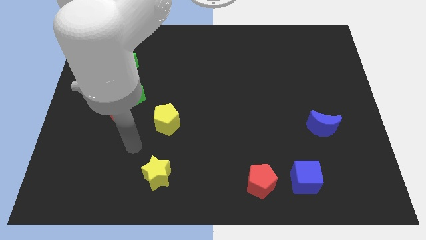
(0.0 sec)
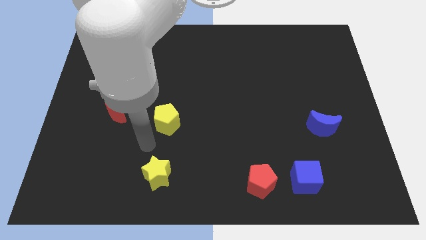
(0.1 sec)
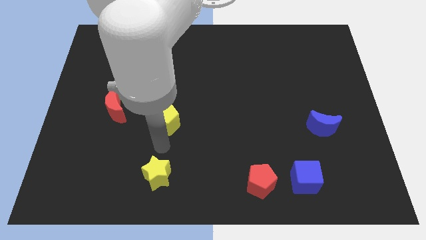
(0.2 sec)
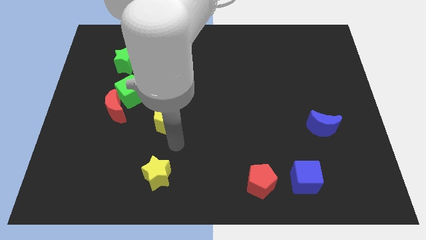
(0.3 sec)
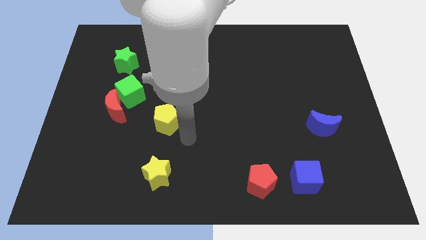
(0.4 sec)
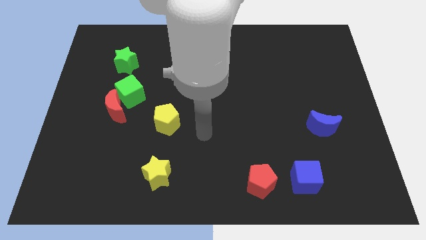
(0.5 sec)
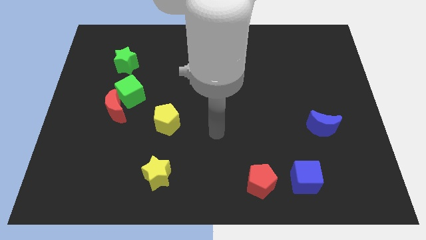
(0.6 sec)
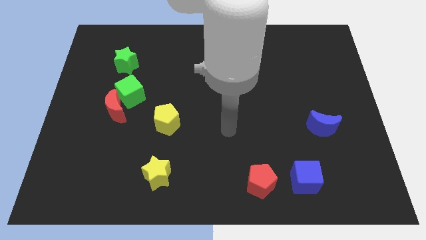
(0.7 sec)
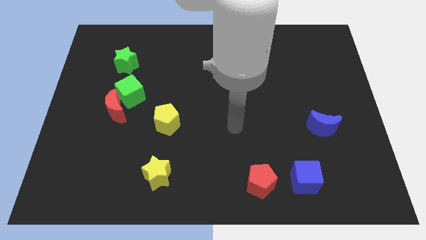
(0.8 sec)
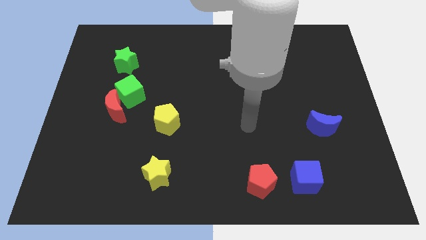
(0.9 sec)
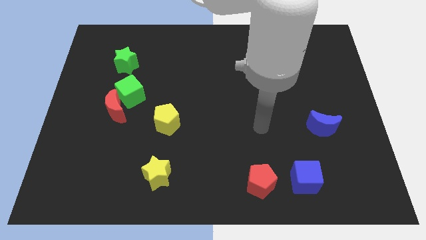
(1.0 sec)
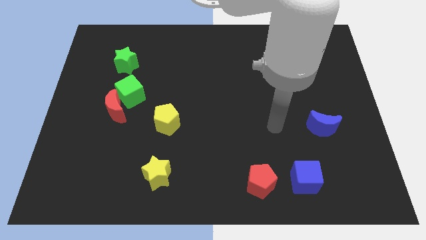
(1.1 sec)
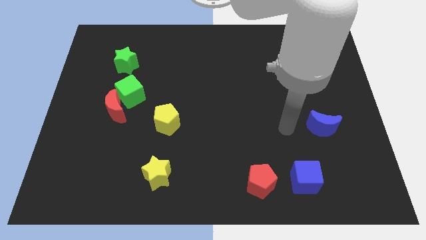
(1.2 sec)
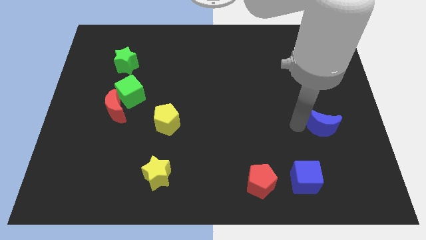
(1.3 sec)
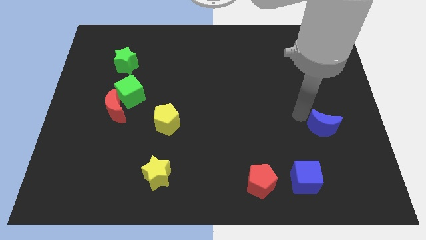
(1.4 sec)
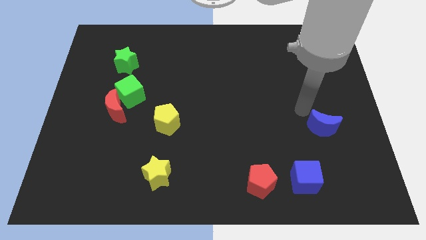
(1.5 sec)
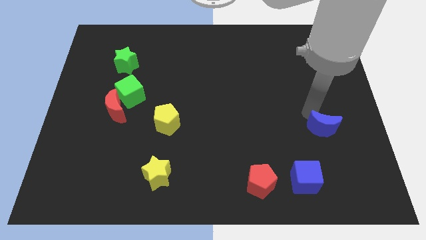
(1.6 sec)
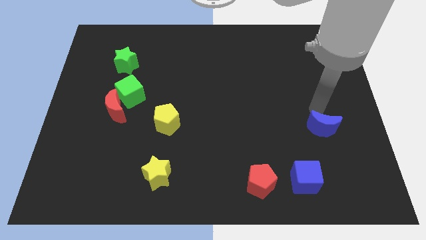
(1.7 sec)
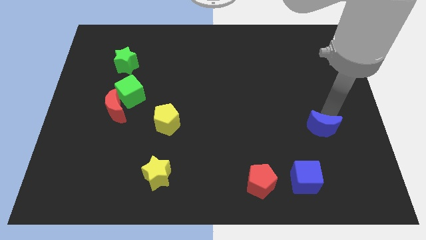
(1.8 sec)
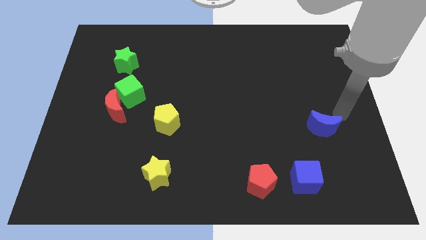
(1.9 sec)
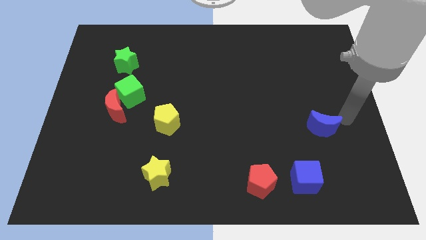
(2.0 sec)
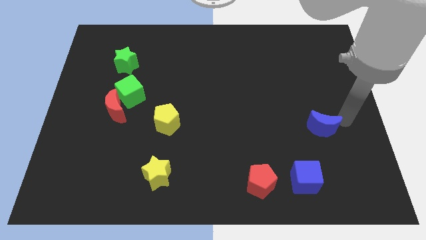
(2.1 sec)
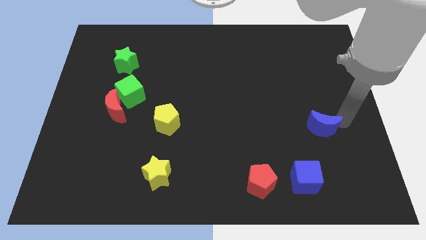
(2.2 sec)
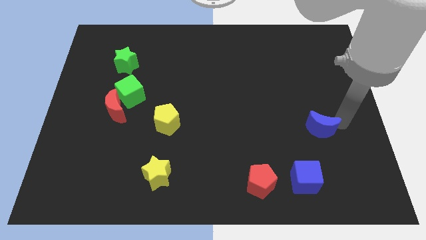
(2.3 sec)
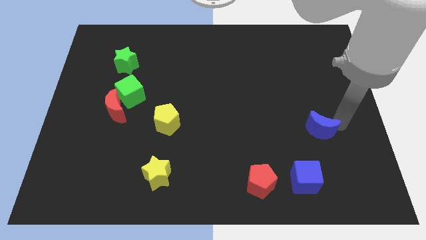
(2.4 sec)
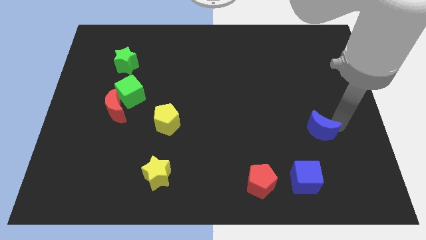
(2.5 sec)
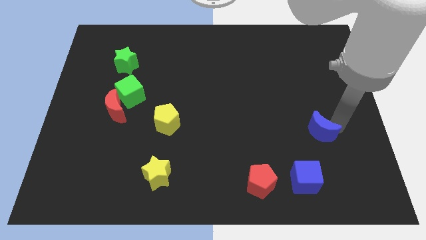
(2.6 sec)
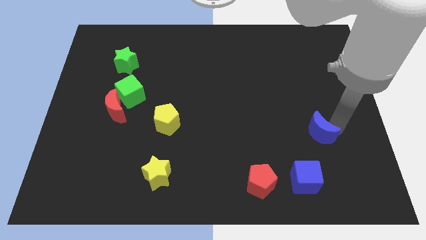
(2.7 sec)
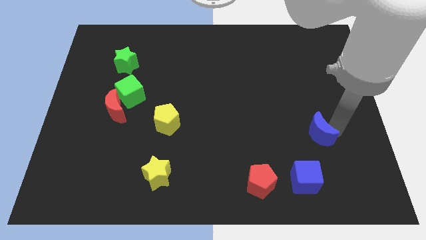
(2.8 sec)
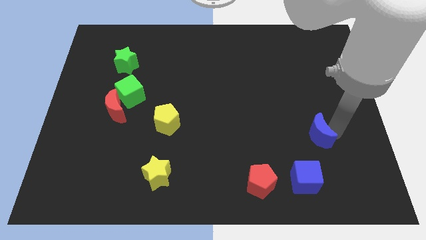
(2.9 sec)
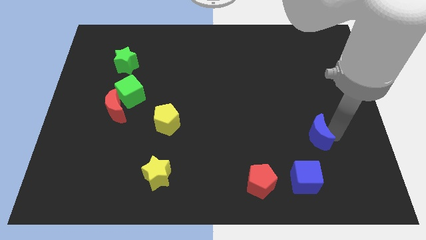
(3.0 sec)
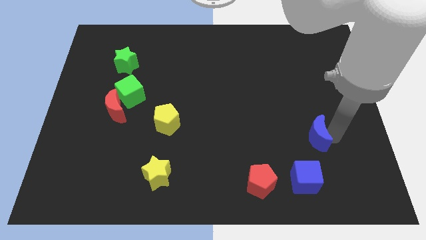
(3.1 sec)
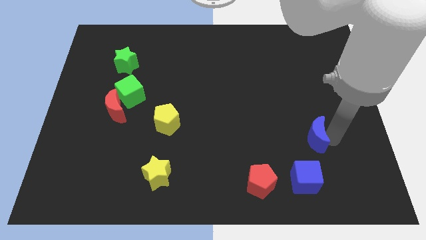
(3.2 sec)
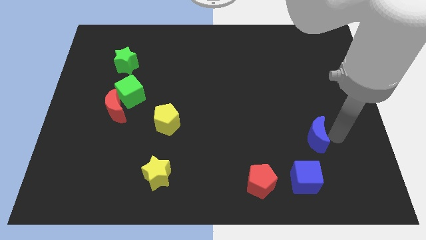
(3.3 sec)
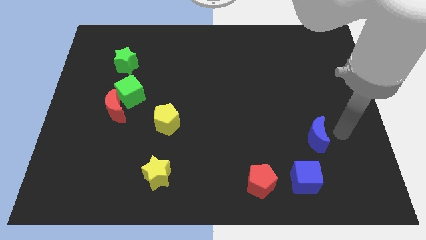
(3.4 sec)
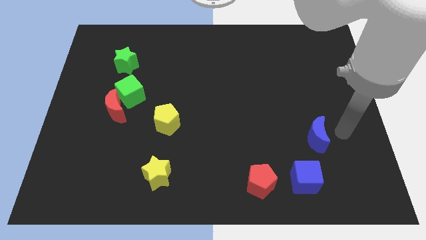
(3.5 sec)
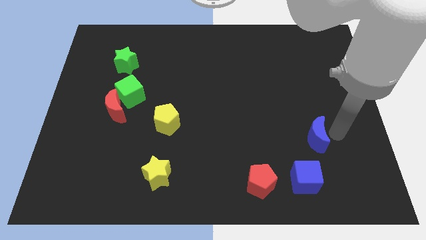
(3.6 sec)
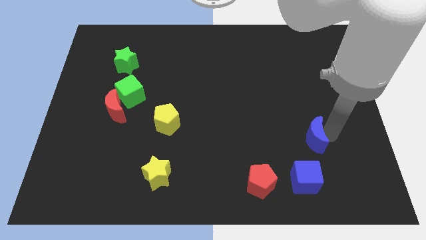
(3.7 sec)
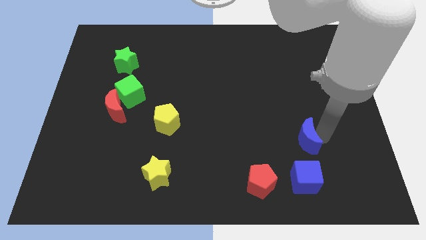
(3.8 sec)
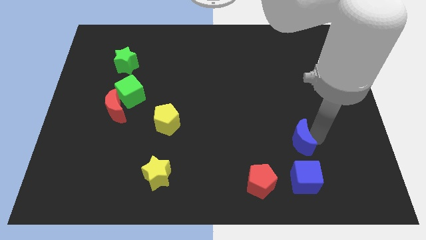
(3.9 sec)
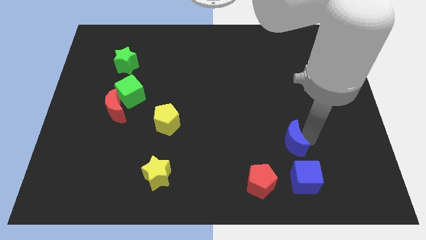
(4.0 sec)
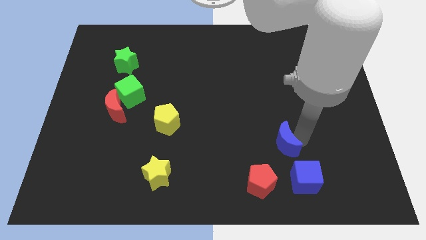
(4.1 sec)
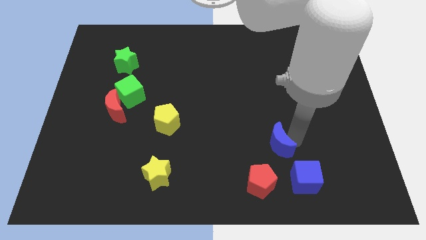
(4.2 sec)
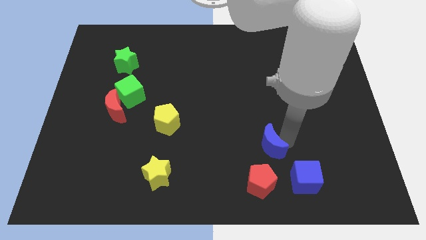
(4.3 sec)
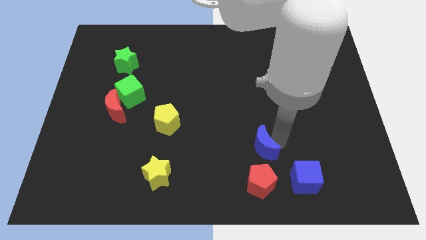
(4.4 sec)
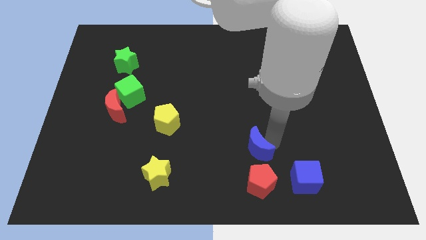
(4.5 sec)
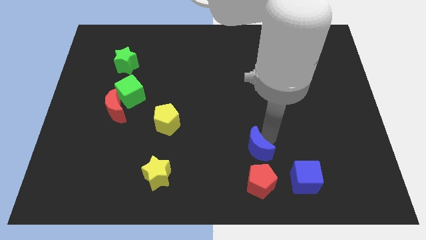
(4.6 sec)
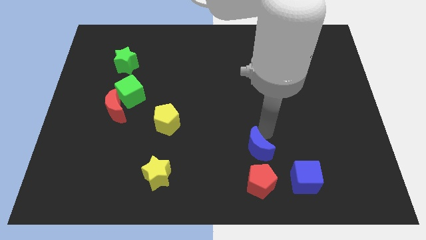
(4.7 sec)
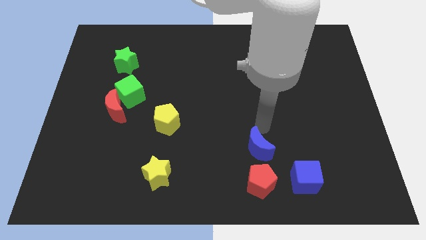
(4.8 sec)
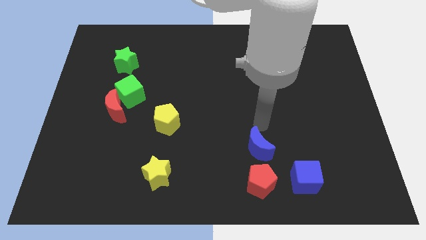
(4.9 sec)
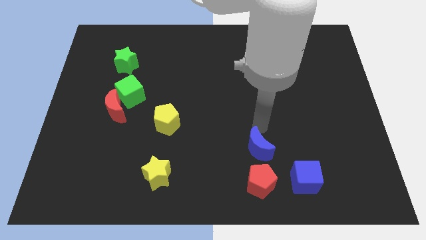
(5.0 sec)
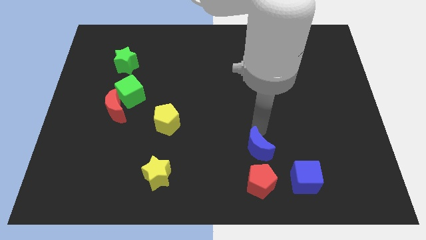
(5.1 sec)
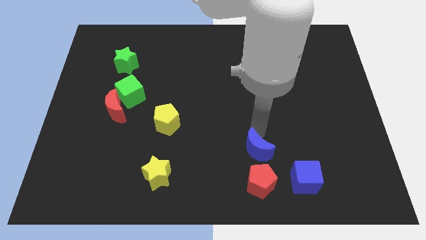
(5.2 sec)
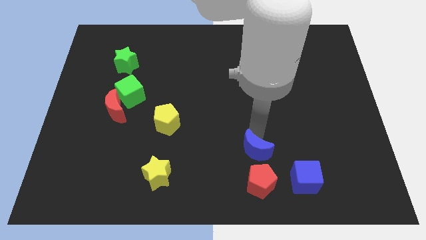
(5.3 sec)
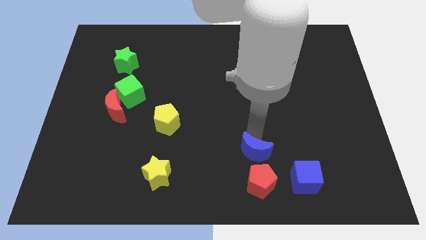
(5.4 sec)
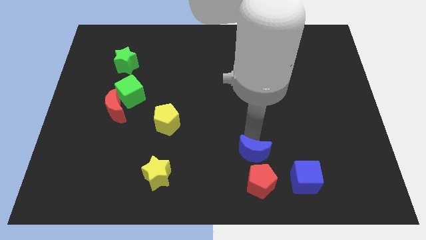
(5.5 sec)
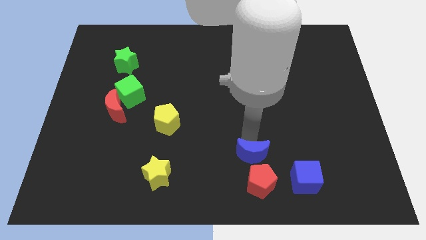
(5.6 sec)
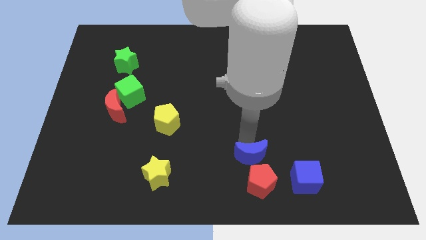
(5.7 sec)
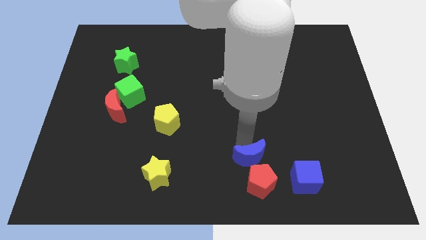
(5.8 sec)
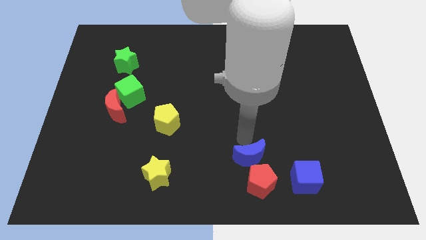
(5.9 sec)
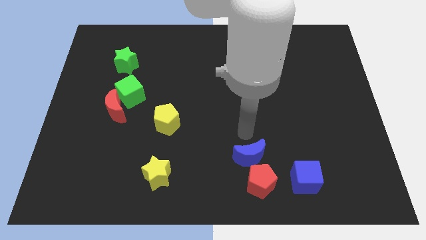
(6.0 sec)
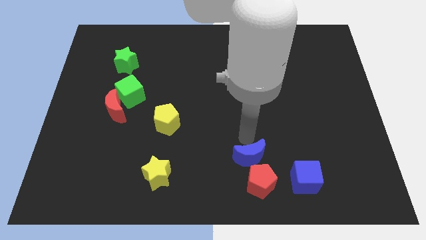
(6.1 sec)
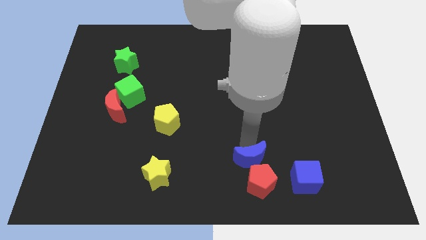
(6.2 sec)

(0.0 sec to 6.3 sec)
push the blue moon to the left side of the blue cube

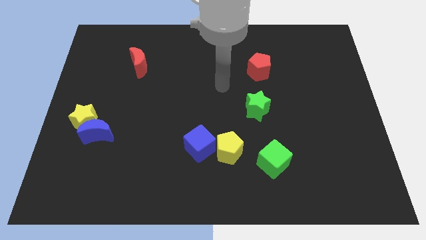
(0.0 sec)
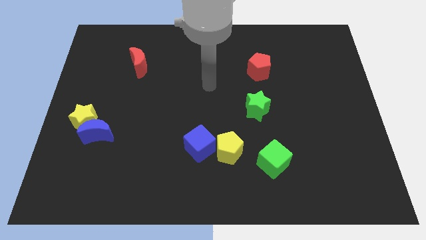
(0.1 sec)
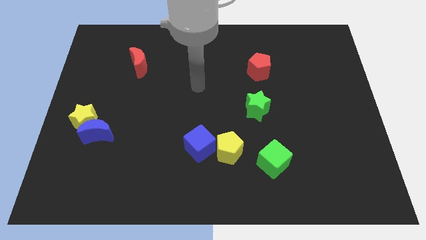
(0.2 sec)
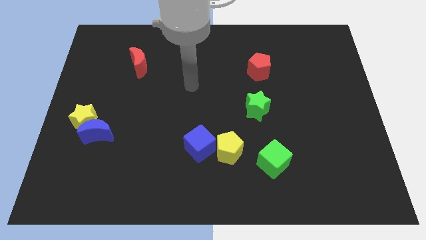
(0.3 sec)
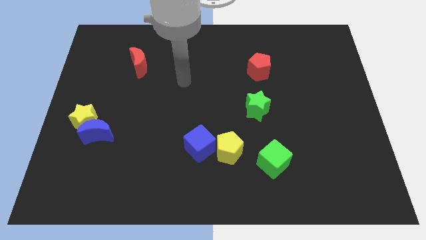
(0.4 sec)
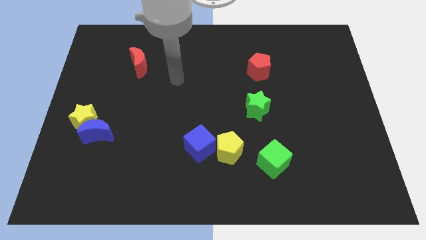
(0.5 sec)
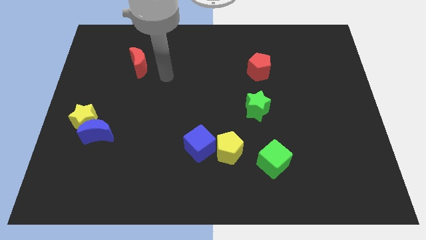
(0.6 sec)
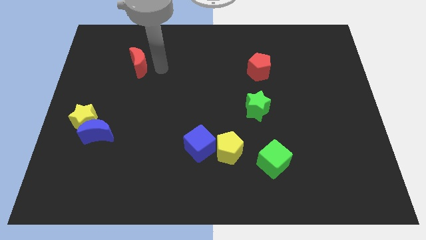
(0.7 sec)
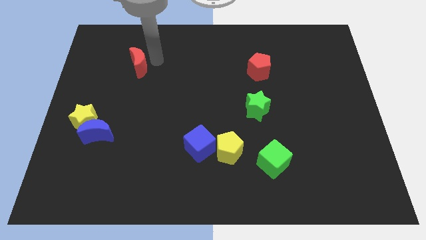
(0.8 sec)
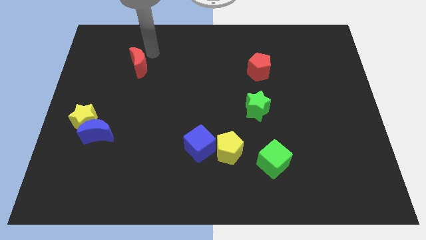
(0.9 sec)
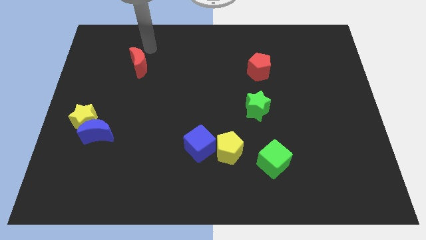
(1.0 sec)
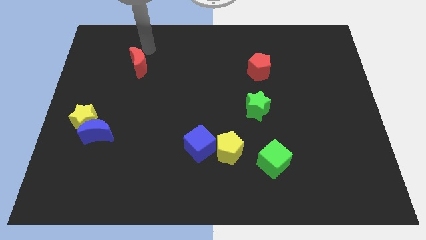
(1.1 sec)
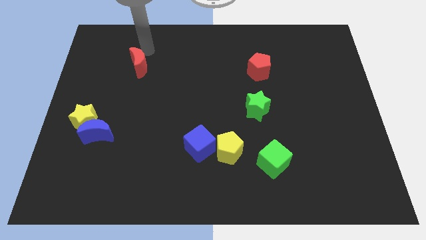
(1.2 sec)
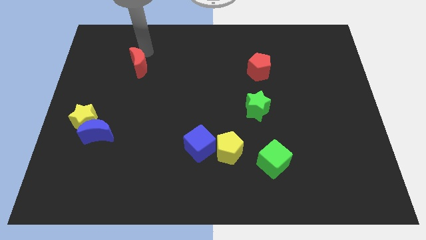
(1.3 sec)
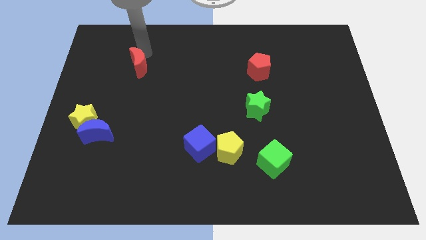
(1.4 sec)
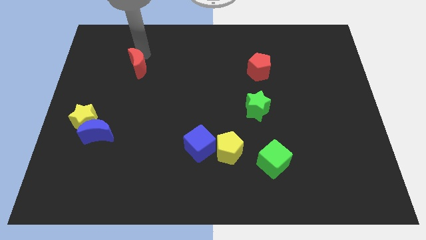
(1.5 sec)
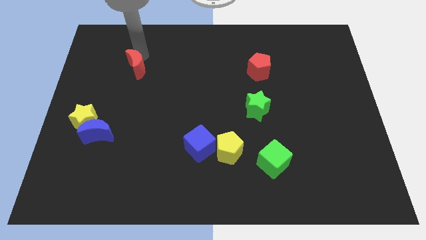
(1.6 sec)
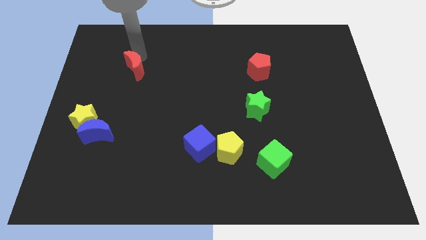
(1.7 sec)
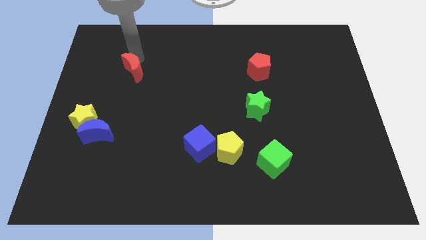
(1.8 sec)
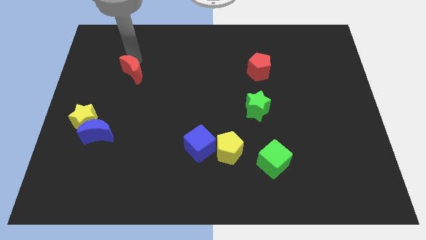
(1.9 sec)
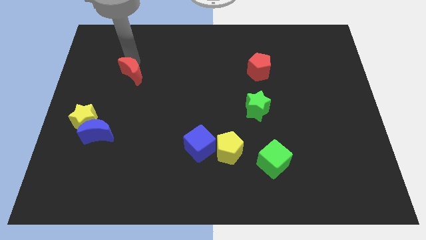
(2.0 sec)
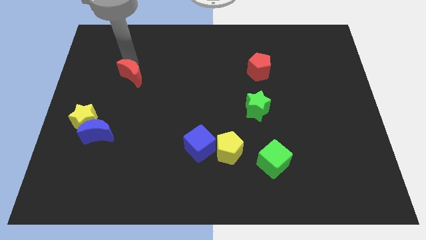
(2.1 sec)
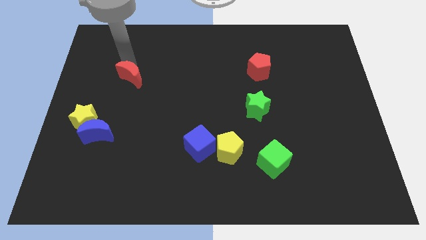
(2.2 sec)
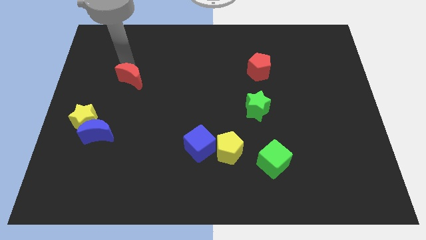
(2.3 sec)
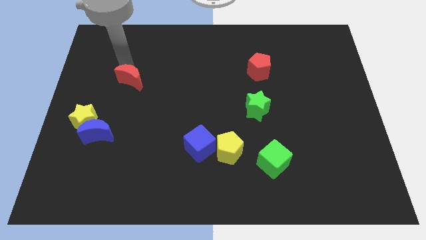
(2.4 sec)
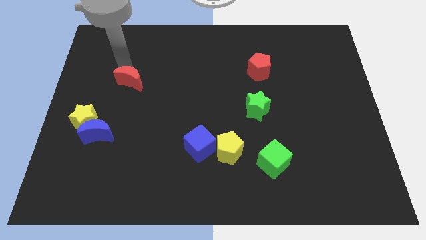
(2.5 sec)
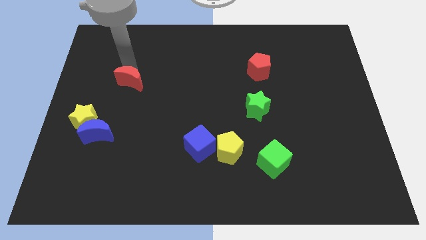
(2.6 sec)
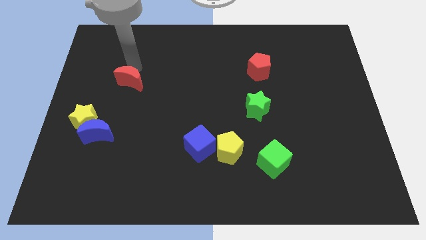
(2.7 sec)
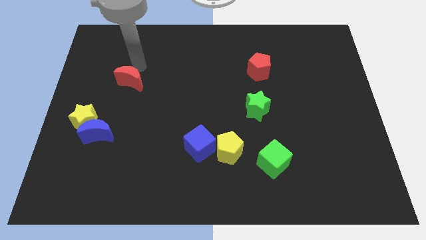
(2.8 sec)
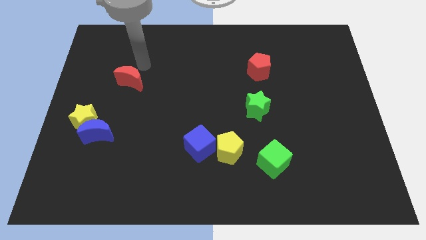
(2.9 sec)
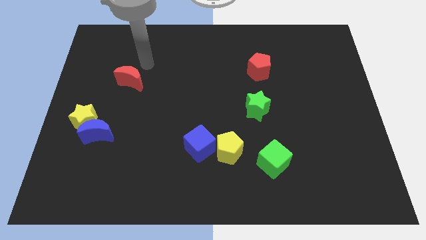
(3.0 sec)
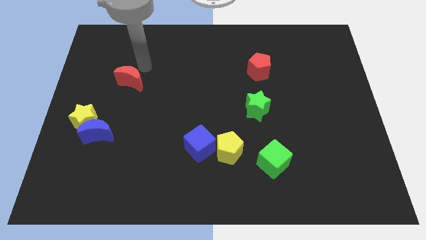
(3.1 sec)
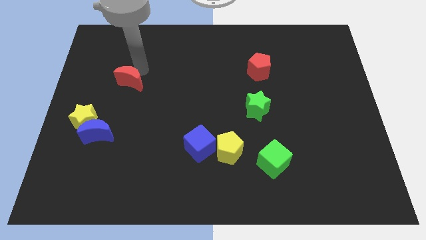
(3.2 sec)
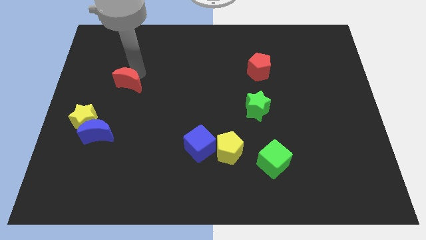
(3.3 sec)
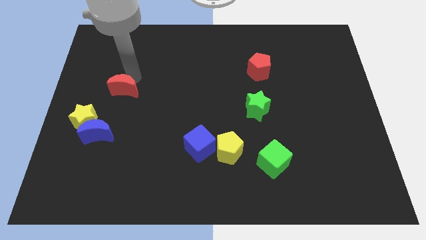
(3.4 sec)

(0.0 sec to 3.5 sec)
put the red moon to the top right of the yellow star
